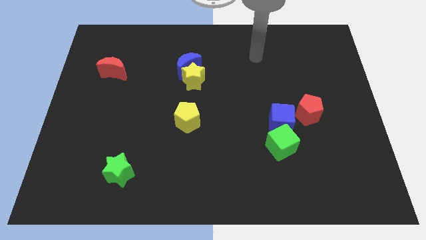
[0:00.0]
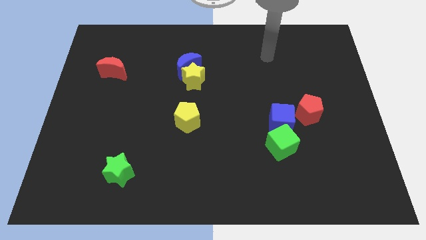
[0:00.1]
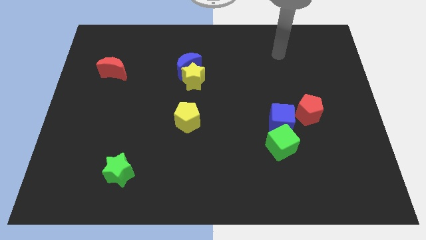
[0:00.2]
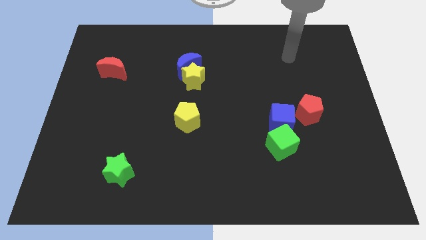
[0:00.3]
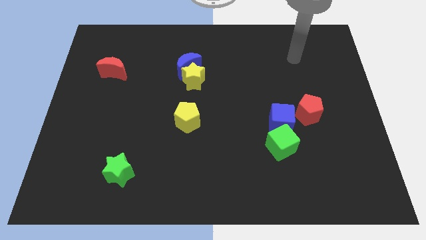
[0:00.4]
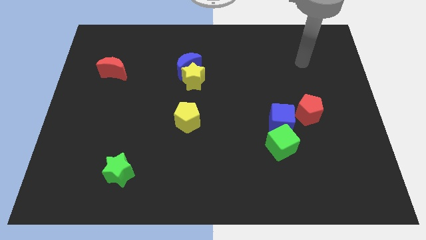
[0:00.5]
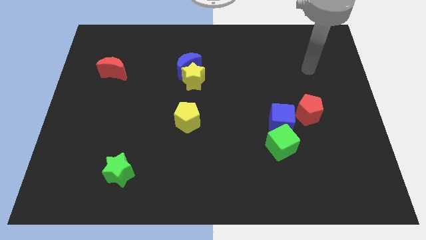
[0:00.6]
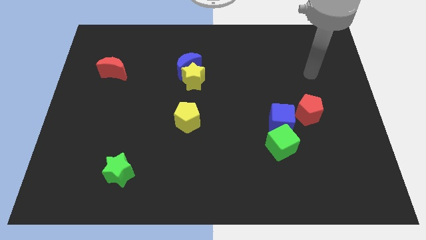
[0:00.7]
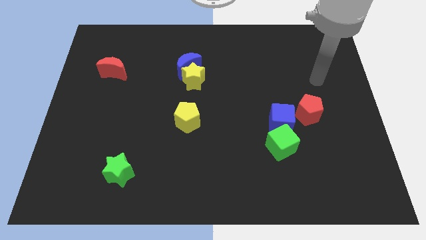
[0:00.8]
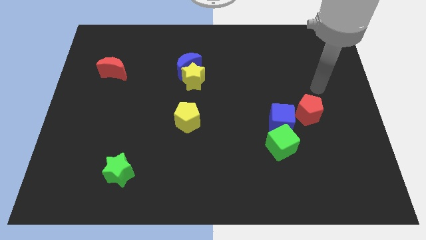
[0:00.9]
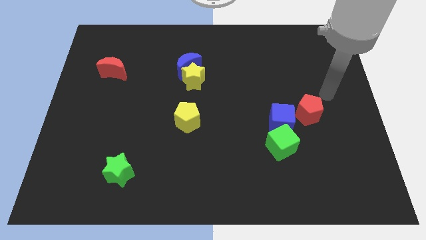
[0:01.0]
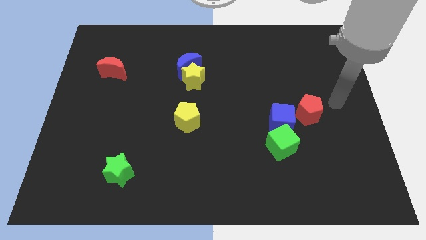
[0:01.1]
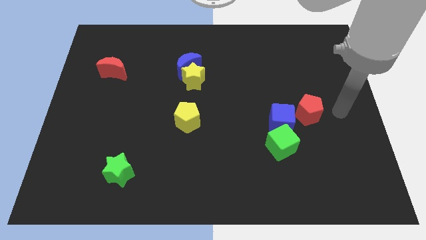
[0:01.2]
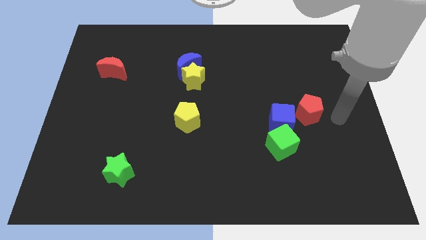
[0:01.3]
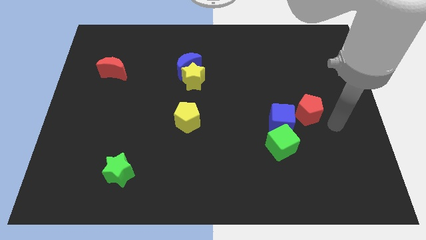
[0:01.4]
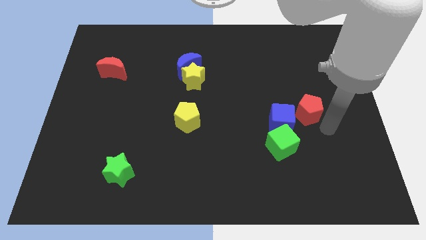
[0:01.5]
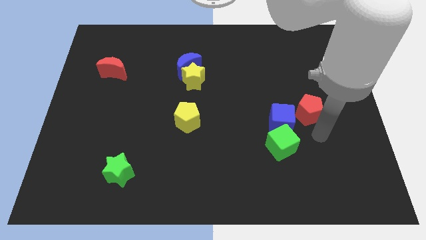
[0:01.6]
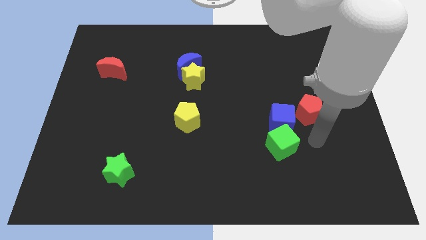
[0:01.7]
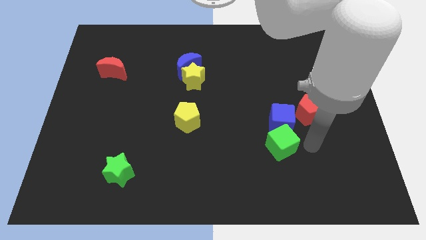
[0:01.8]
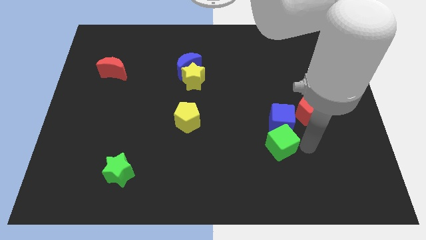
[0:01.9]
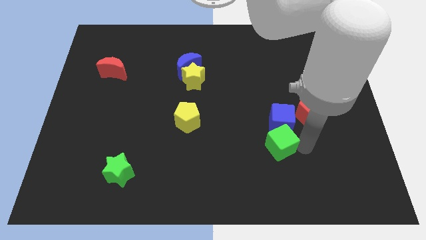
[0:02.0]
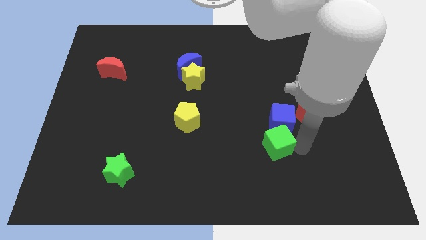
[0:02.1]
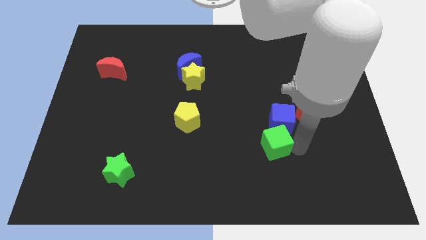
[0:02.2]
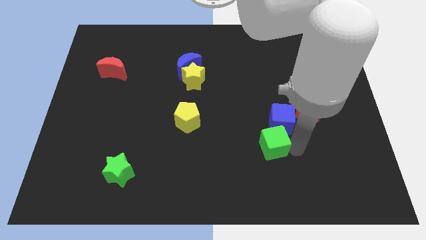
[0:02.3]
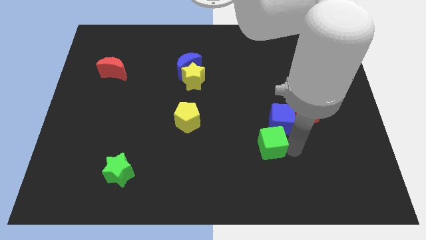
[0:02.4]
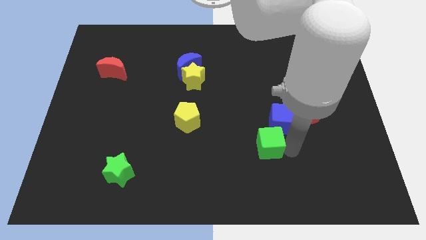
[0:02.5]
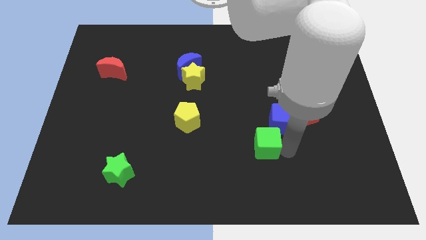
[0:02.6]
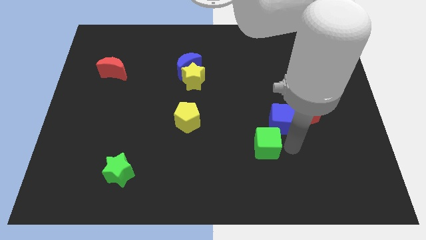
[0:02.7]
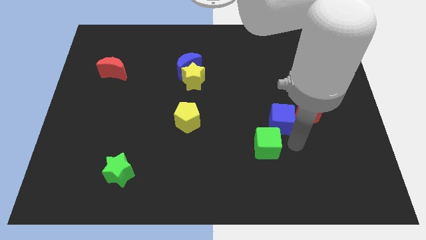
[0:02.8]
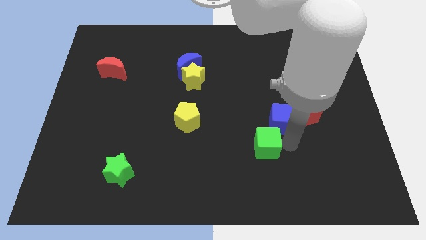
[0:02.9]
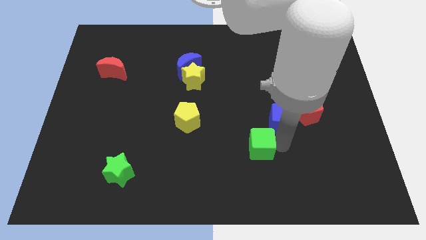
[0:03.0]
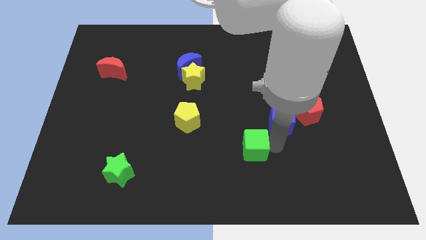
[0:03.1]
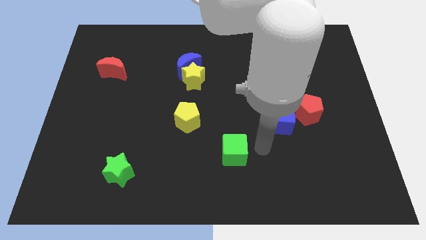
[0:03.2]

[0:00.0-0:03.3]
slide the green cube a bit to the left

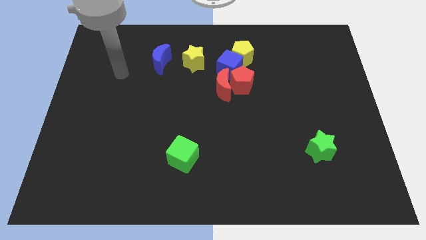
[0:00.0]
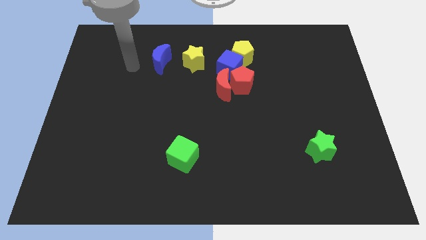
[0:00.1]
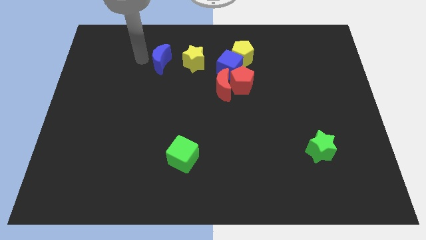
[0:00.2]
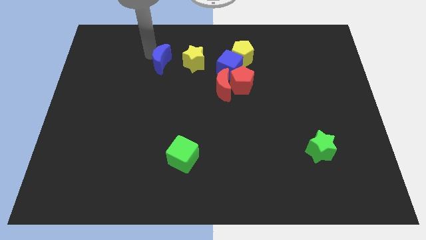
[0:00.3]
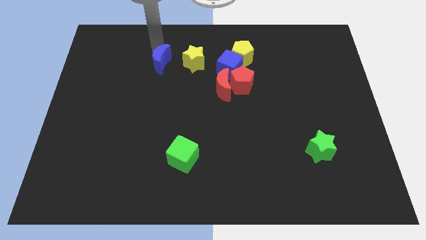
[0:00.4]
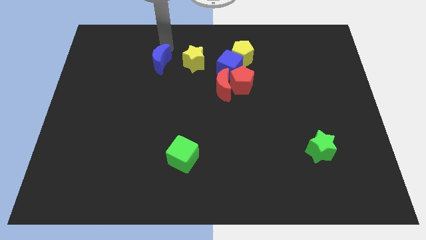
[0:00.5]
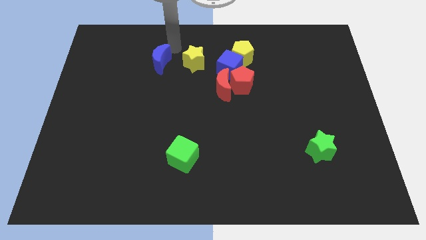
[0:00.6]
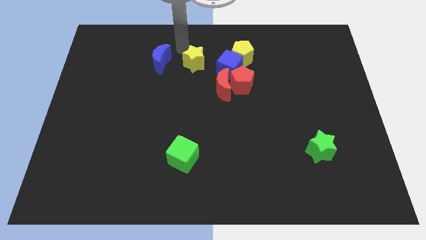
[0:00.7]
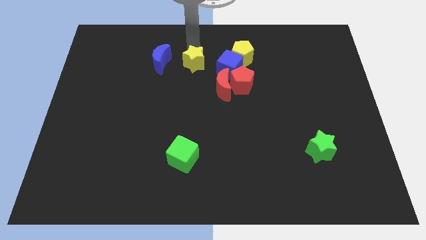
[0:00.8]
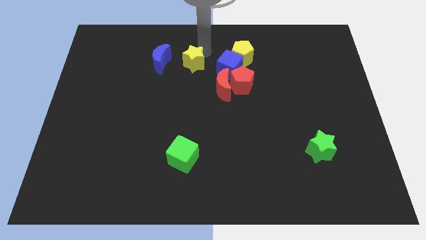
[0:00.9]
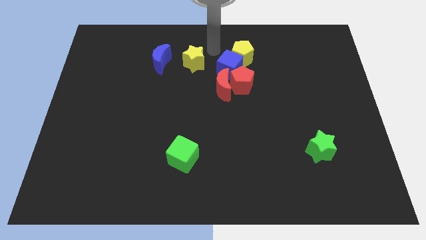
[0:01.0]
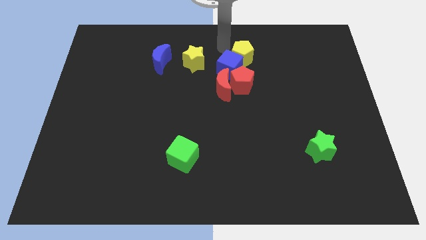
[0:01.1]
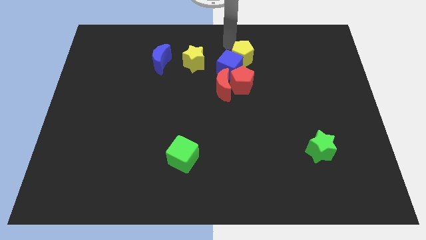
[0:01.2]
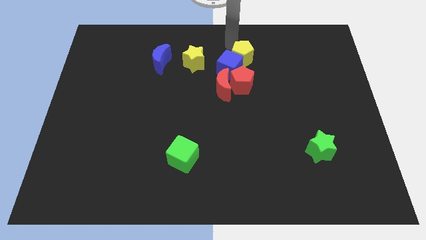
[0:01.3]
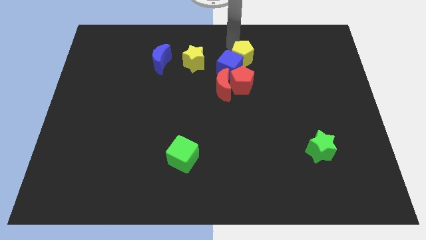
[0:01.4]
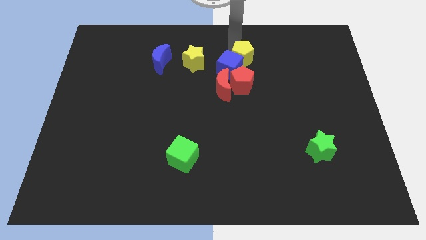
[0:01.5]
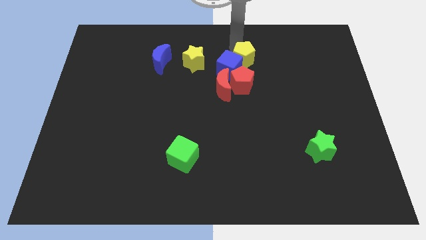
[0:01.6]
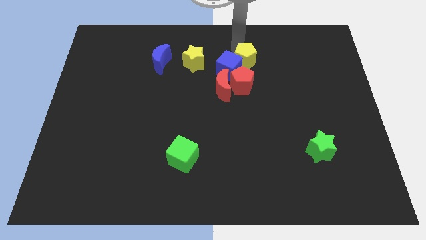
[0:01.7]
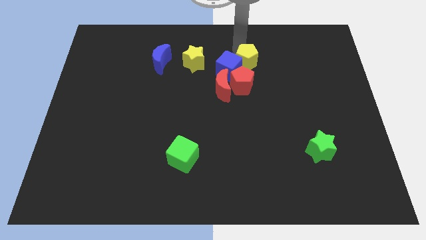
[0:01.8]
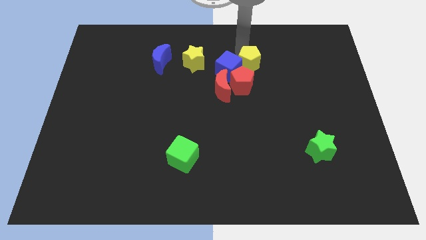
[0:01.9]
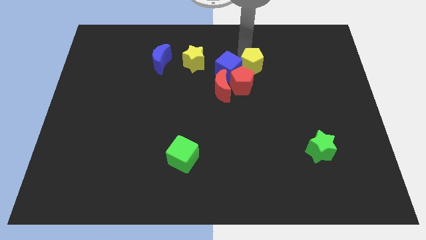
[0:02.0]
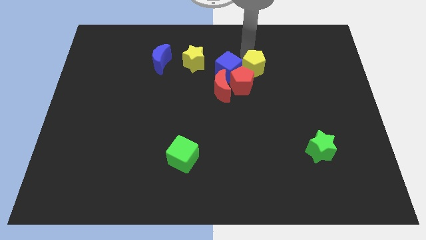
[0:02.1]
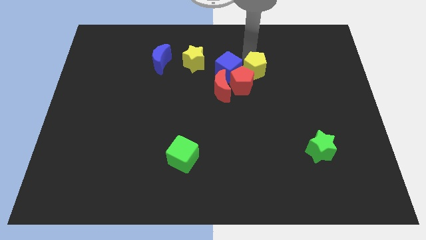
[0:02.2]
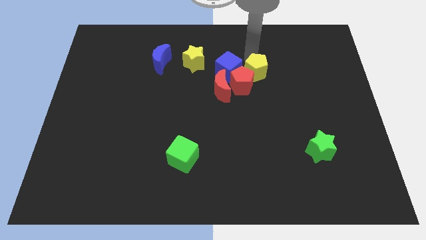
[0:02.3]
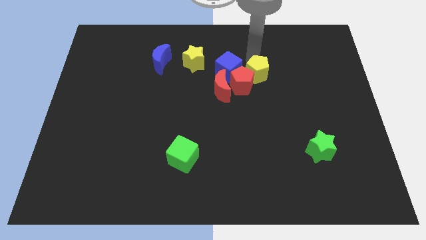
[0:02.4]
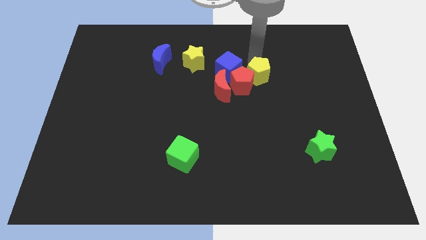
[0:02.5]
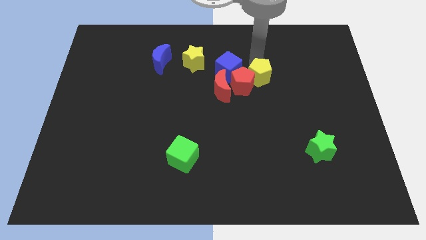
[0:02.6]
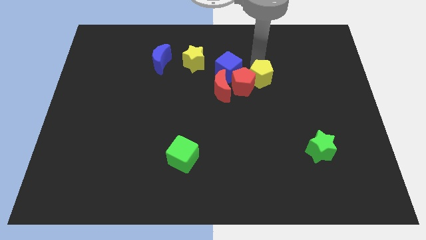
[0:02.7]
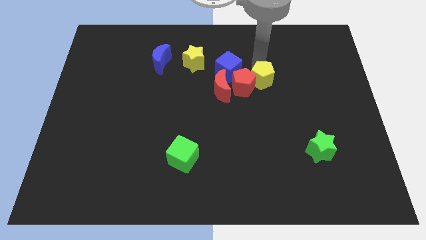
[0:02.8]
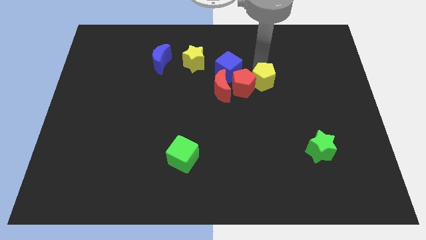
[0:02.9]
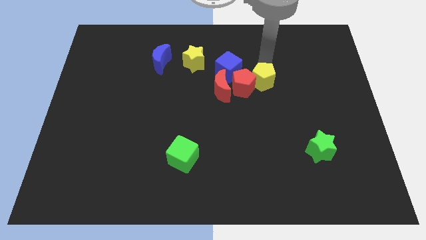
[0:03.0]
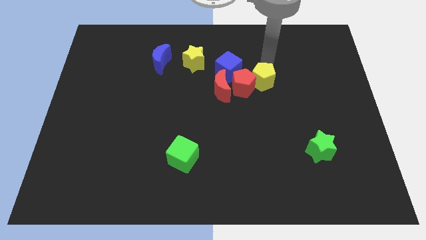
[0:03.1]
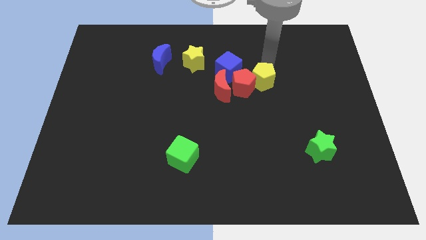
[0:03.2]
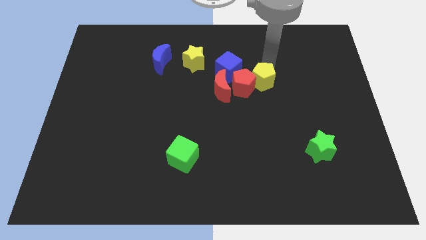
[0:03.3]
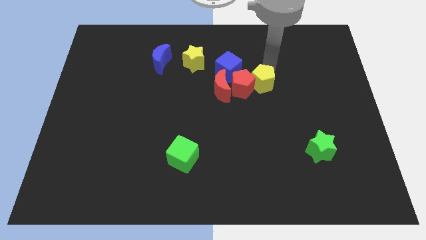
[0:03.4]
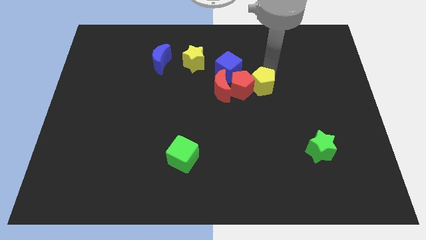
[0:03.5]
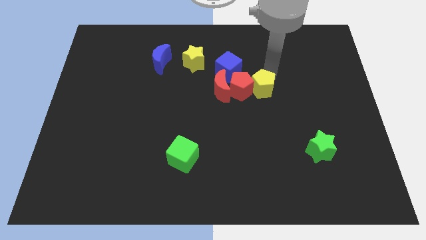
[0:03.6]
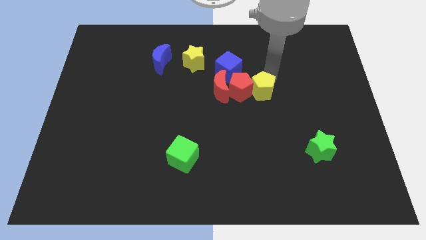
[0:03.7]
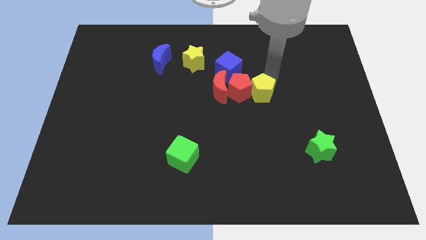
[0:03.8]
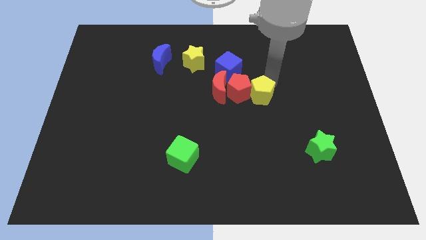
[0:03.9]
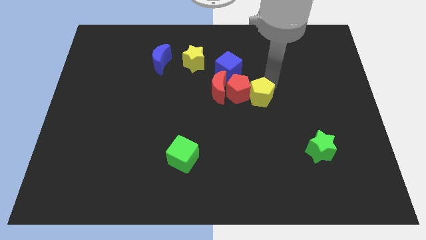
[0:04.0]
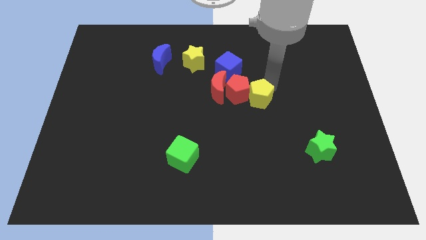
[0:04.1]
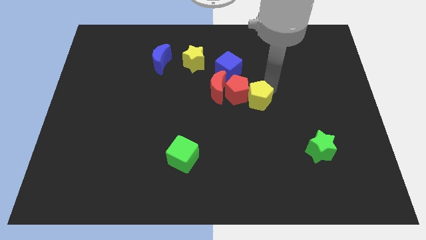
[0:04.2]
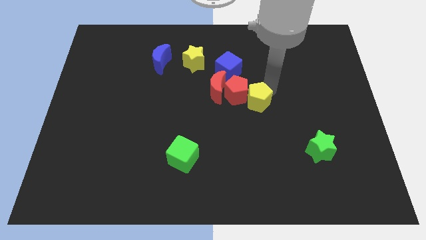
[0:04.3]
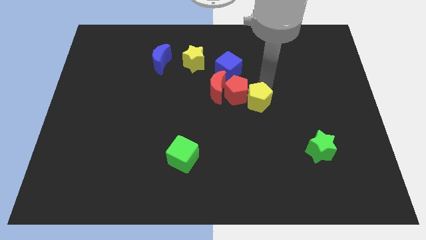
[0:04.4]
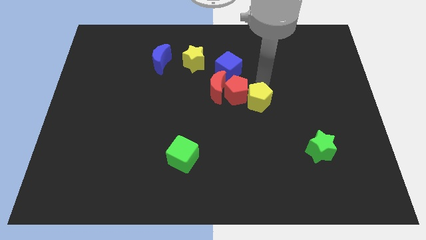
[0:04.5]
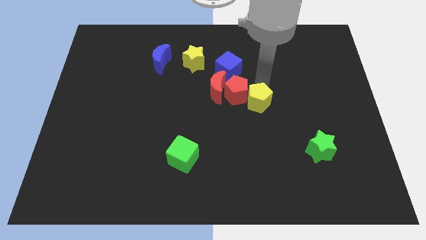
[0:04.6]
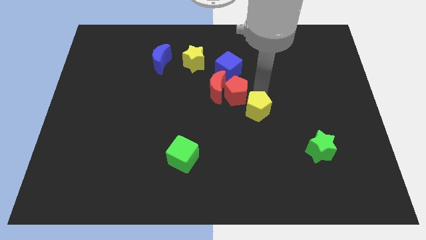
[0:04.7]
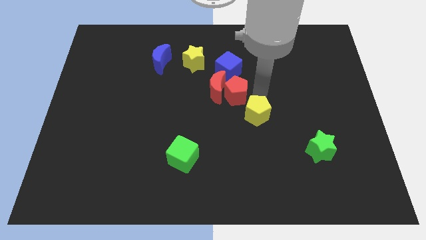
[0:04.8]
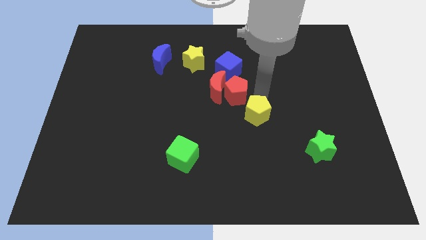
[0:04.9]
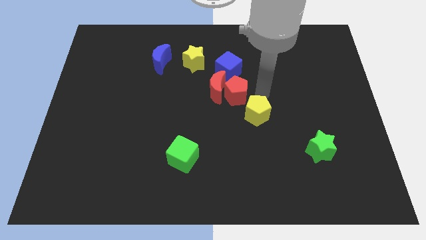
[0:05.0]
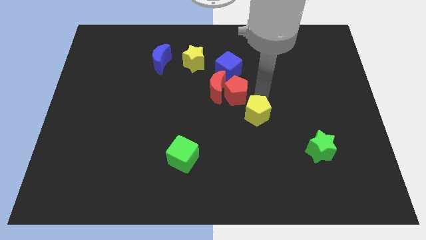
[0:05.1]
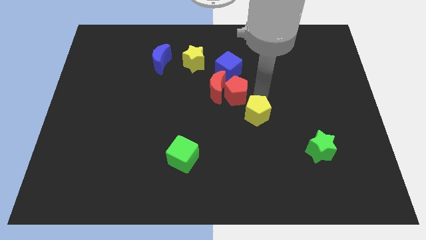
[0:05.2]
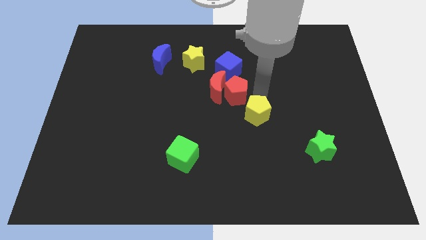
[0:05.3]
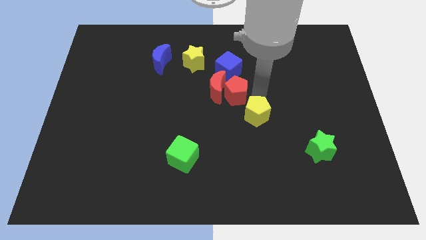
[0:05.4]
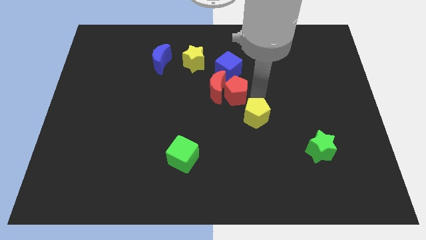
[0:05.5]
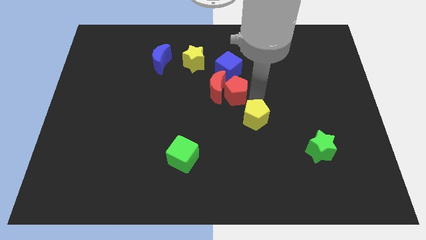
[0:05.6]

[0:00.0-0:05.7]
push the yellow pentagon down
